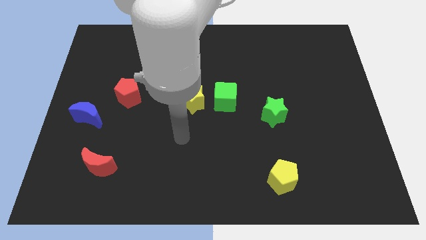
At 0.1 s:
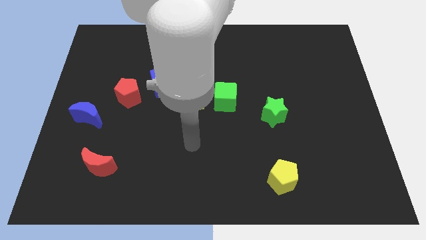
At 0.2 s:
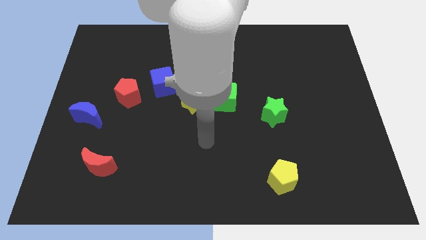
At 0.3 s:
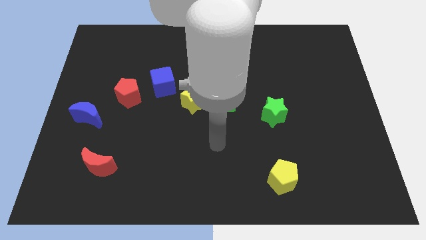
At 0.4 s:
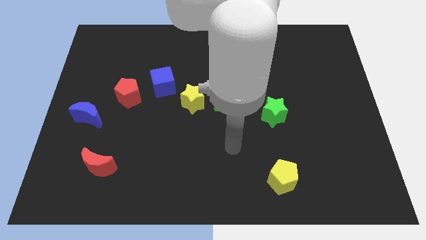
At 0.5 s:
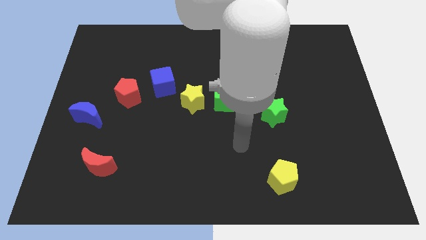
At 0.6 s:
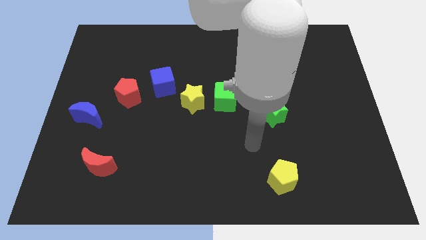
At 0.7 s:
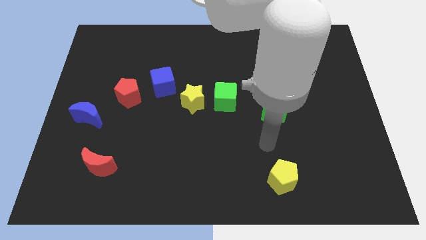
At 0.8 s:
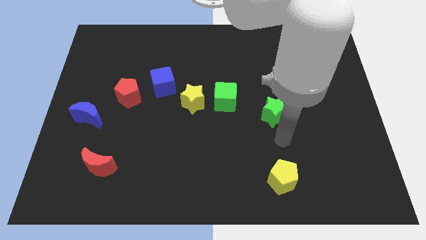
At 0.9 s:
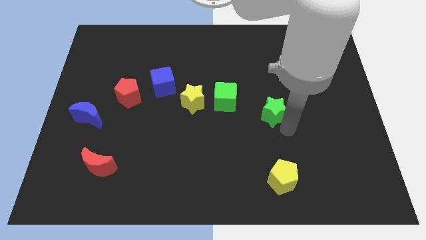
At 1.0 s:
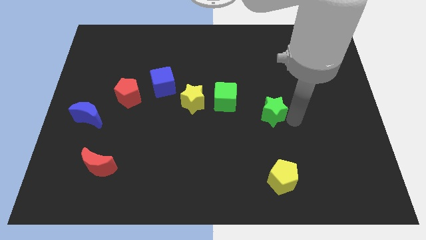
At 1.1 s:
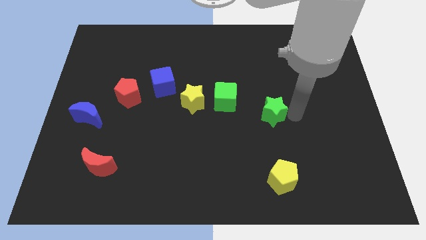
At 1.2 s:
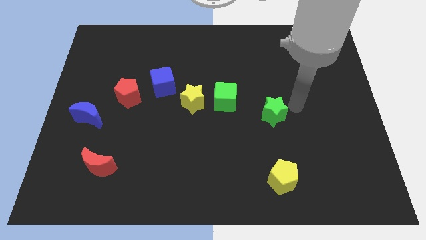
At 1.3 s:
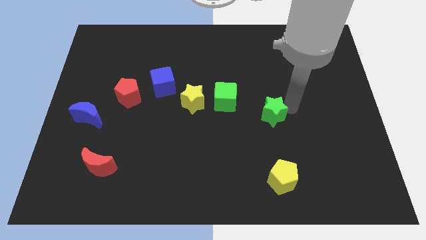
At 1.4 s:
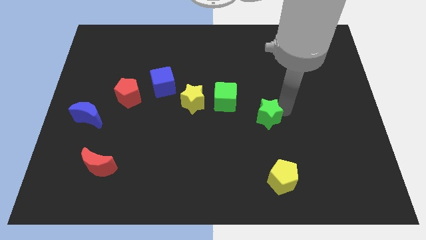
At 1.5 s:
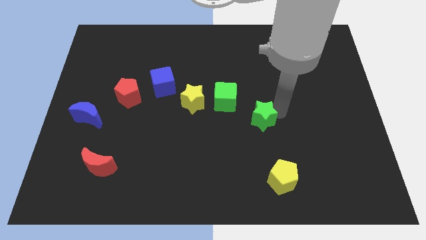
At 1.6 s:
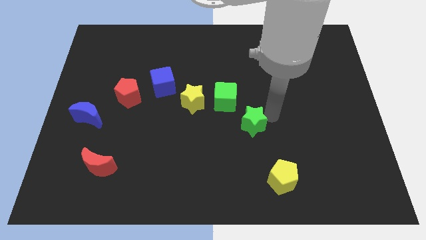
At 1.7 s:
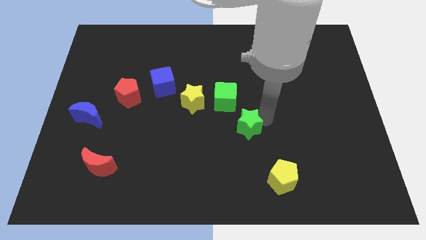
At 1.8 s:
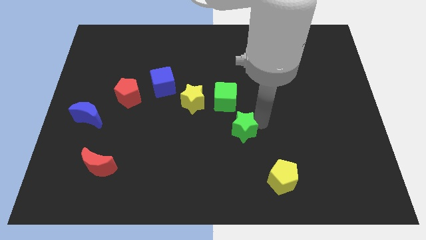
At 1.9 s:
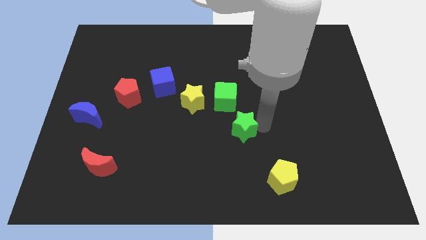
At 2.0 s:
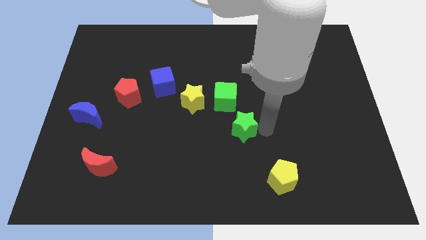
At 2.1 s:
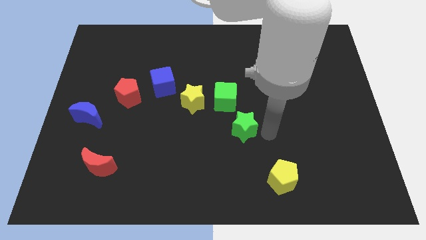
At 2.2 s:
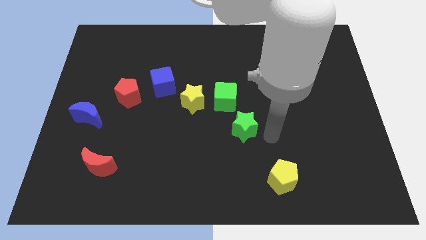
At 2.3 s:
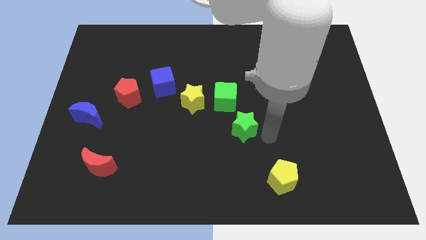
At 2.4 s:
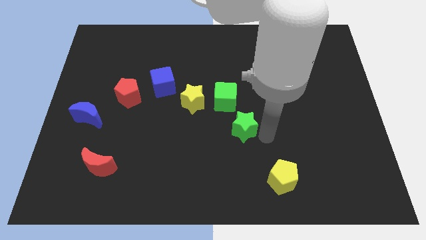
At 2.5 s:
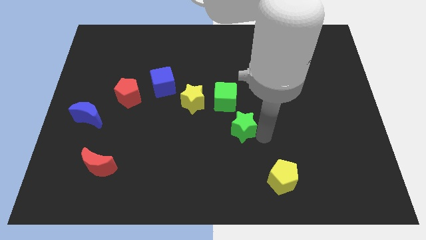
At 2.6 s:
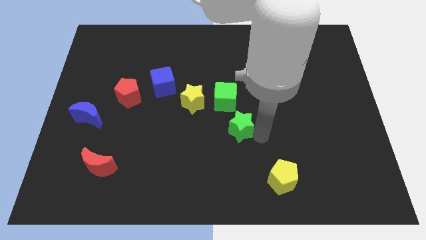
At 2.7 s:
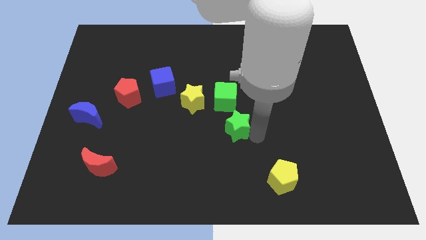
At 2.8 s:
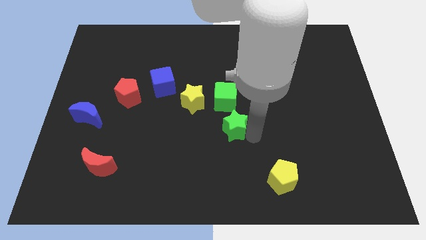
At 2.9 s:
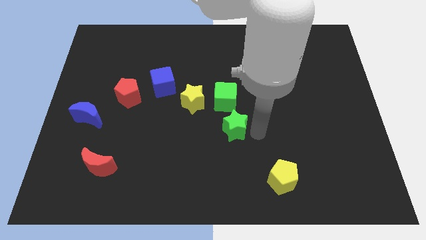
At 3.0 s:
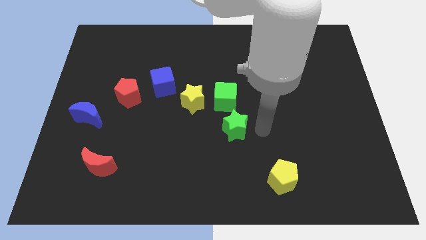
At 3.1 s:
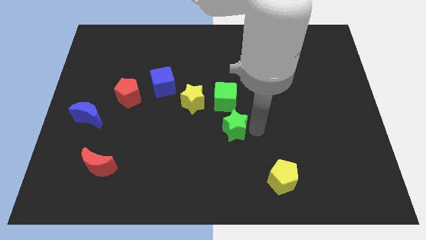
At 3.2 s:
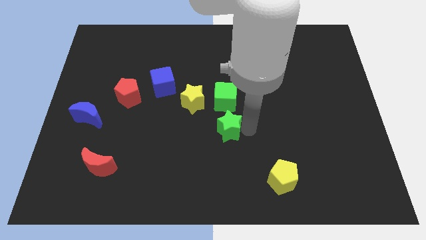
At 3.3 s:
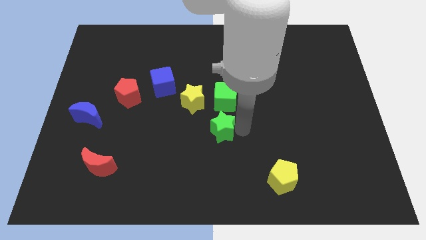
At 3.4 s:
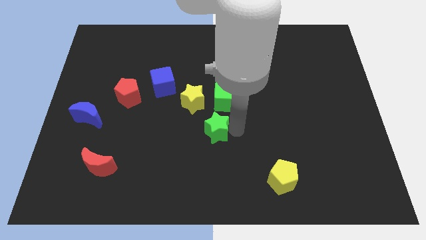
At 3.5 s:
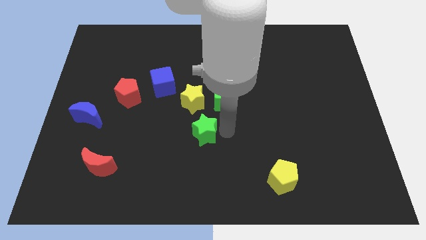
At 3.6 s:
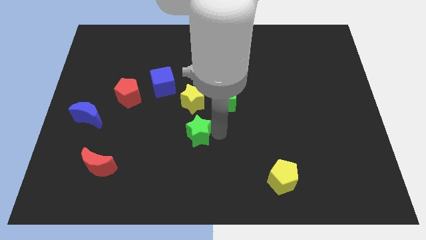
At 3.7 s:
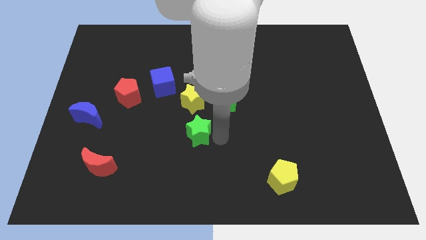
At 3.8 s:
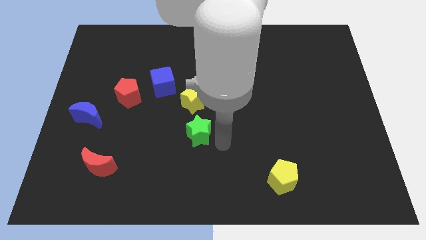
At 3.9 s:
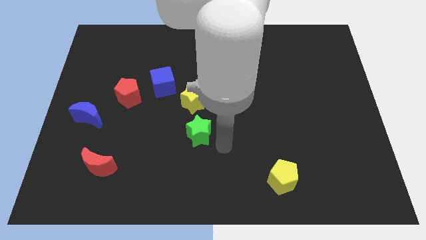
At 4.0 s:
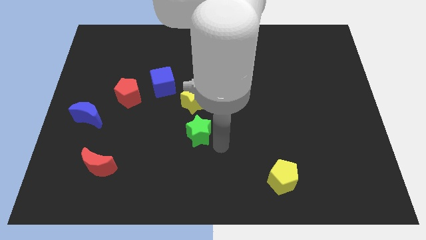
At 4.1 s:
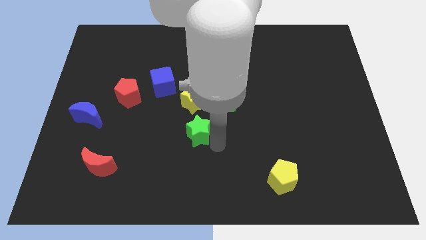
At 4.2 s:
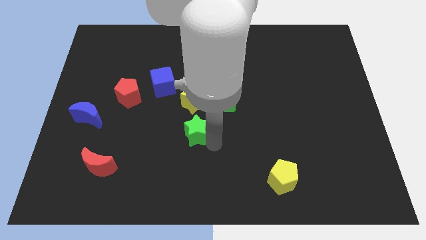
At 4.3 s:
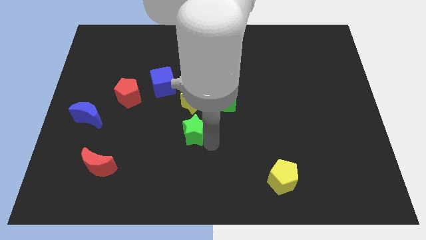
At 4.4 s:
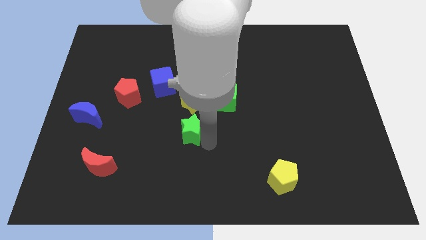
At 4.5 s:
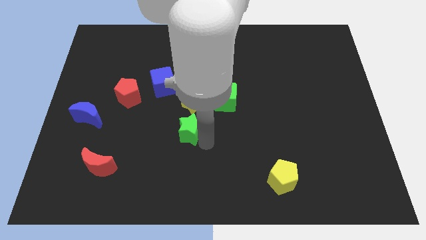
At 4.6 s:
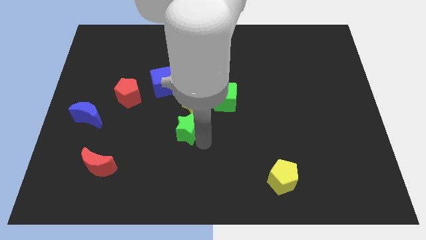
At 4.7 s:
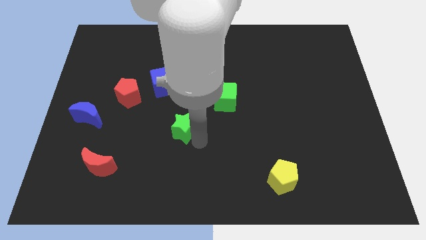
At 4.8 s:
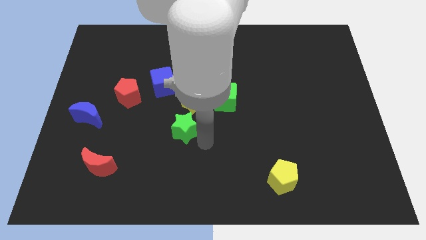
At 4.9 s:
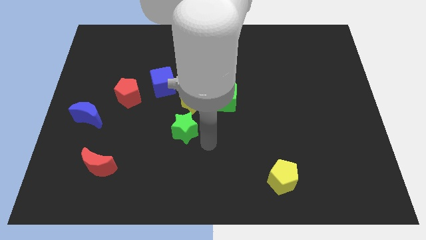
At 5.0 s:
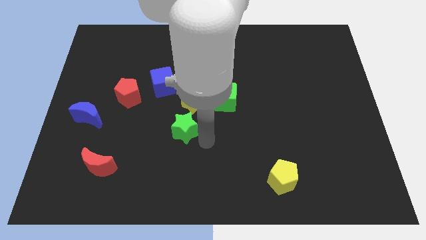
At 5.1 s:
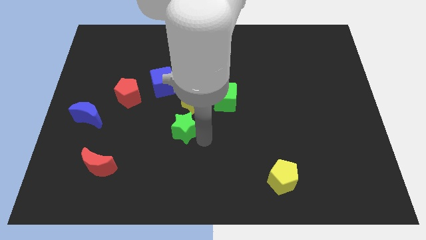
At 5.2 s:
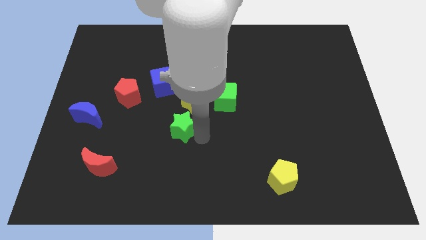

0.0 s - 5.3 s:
push the green star left

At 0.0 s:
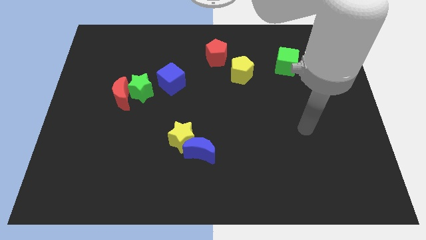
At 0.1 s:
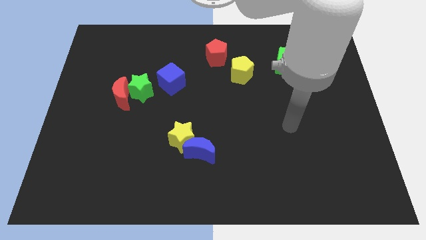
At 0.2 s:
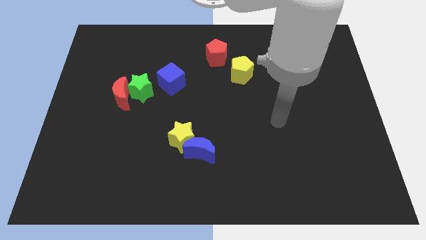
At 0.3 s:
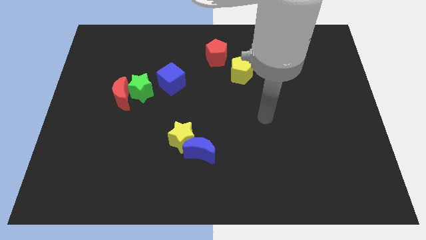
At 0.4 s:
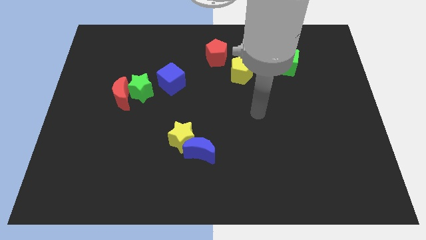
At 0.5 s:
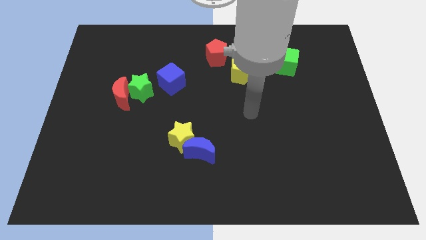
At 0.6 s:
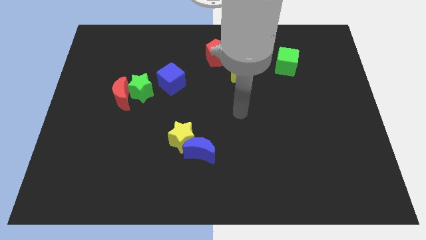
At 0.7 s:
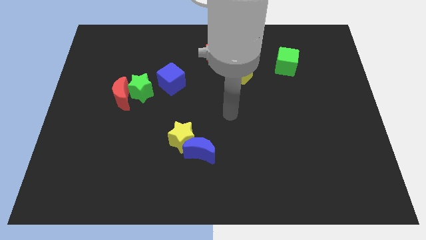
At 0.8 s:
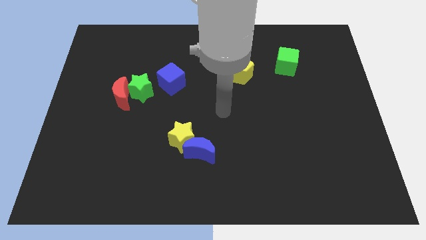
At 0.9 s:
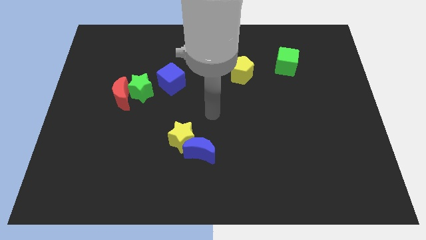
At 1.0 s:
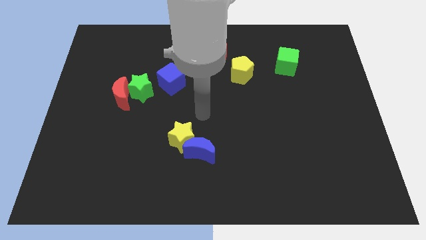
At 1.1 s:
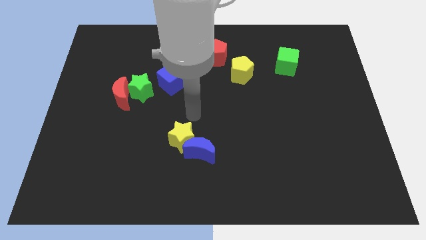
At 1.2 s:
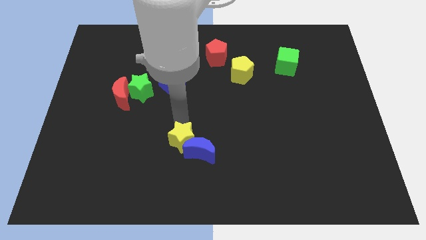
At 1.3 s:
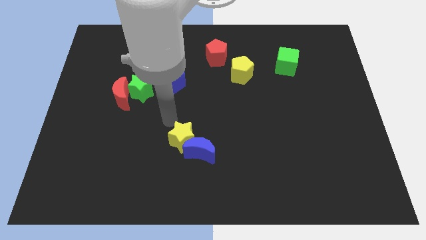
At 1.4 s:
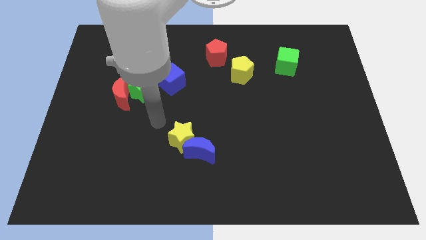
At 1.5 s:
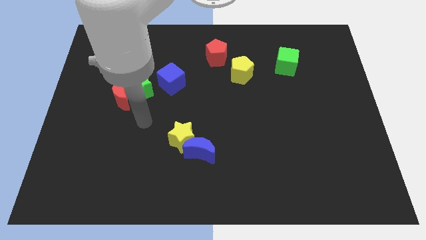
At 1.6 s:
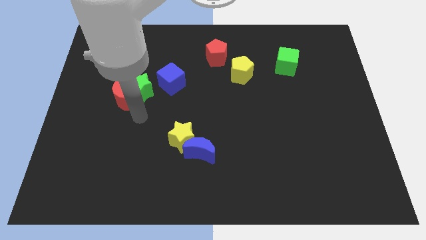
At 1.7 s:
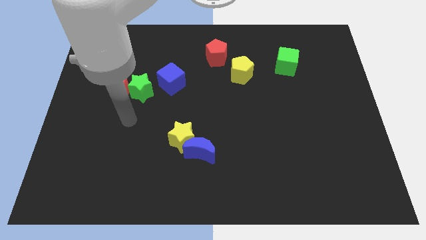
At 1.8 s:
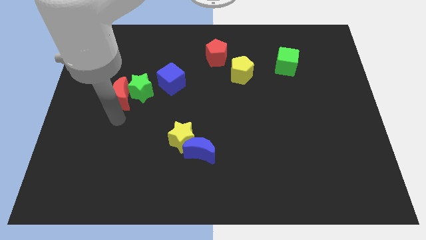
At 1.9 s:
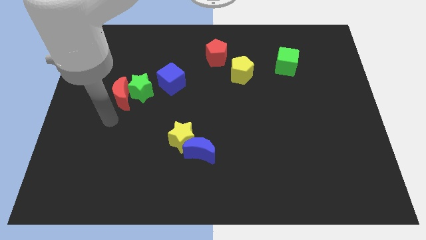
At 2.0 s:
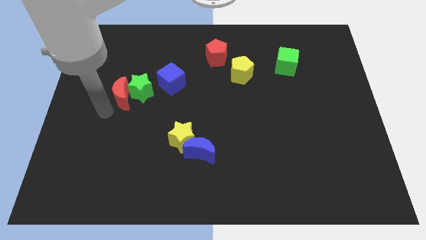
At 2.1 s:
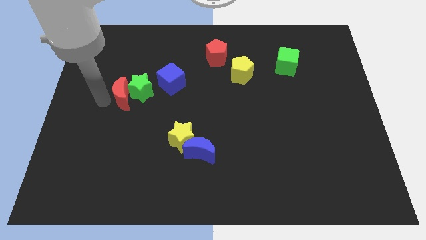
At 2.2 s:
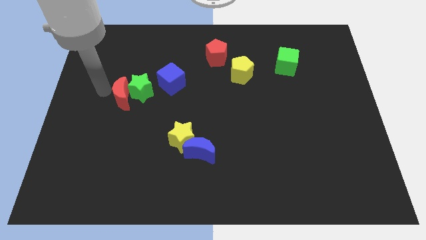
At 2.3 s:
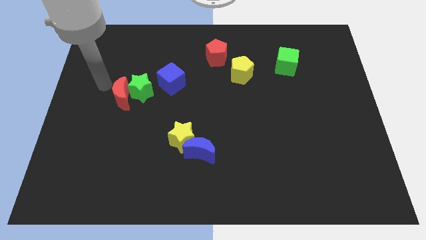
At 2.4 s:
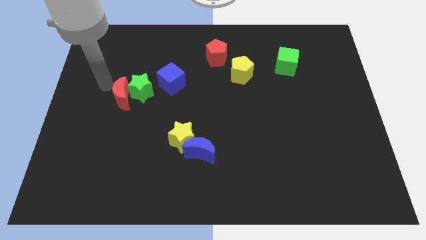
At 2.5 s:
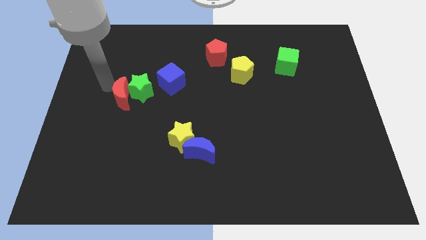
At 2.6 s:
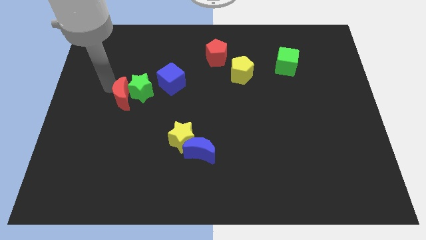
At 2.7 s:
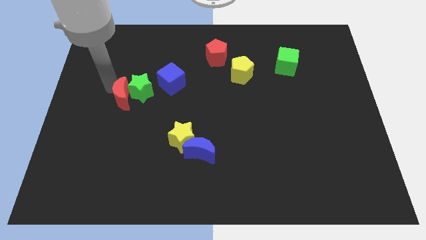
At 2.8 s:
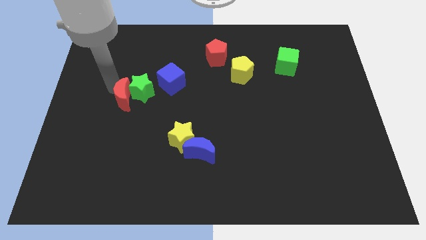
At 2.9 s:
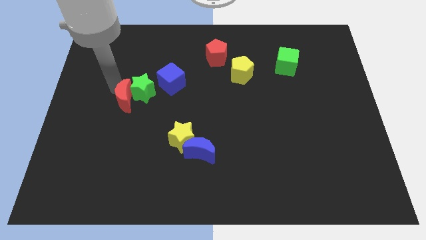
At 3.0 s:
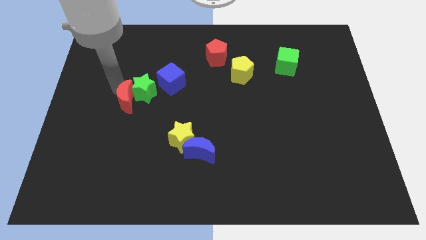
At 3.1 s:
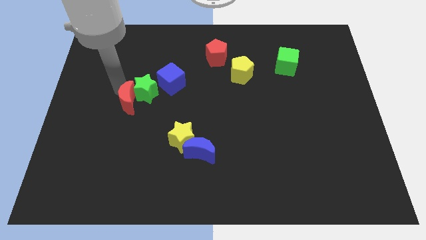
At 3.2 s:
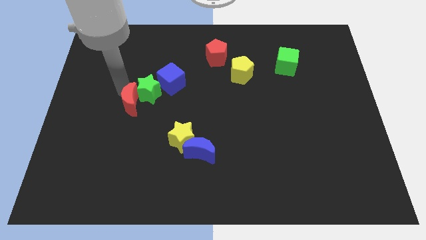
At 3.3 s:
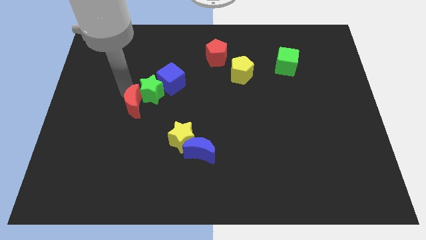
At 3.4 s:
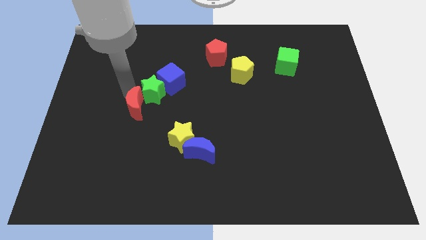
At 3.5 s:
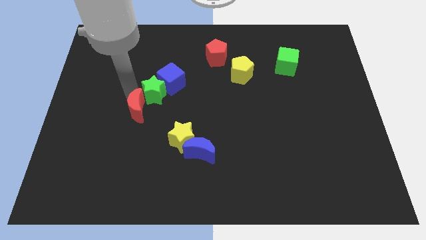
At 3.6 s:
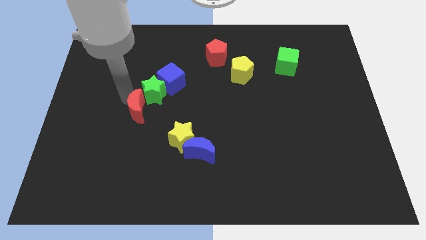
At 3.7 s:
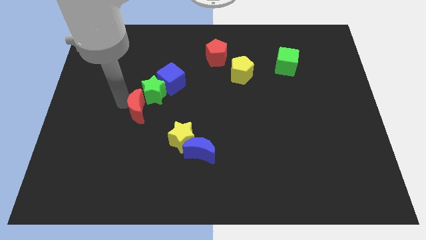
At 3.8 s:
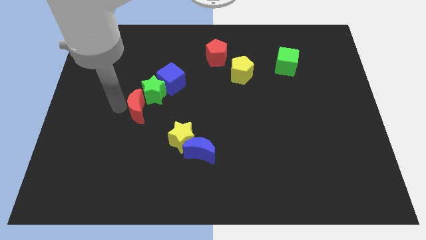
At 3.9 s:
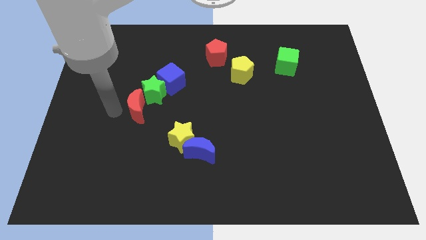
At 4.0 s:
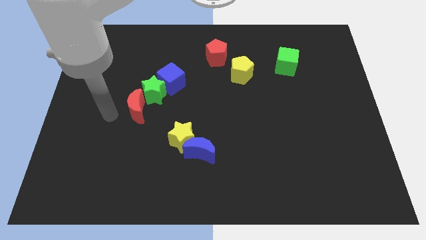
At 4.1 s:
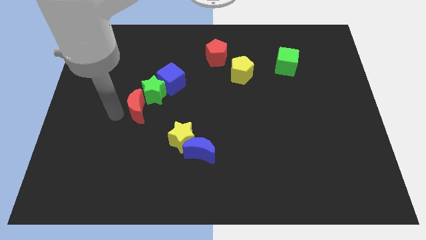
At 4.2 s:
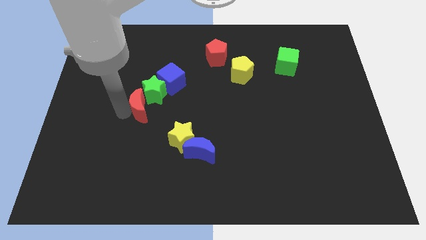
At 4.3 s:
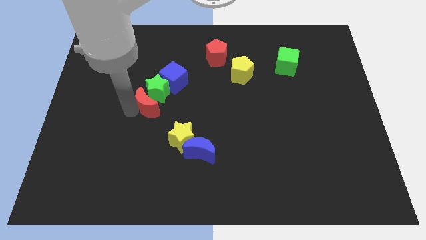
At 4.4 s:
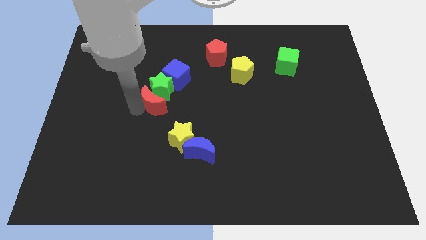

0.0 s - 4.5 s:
push the red moon a little bit to the right
